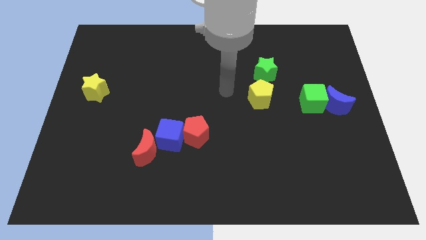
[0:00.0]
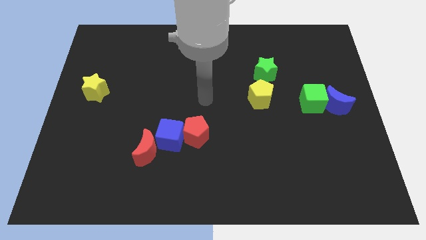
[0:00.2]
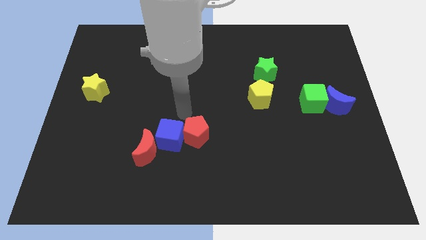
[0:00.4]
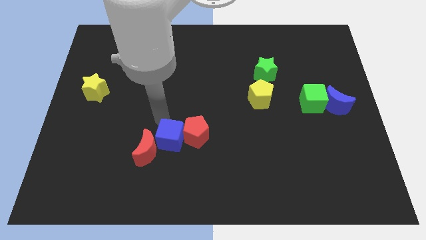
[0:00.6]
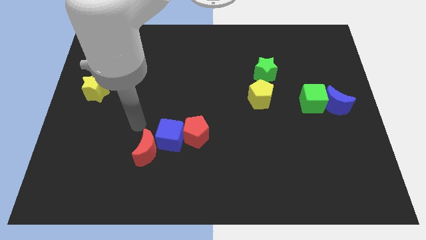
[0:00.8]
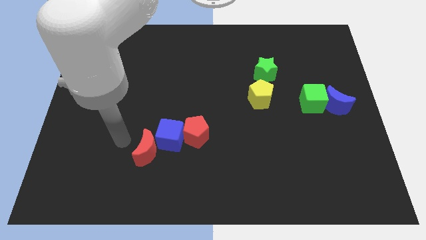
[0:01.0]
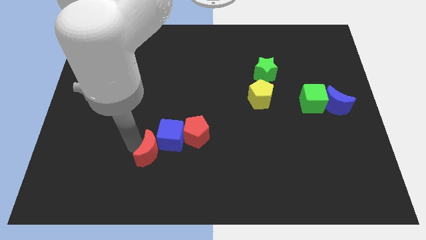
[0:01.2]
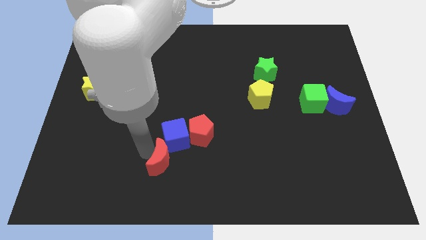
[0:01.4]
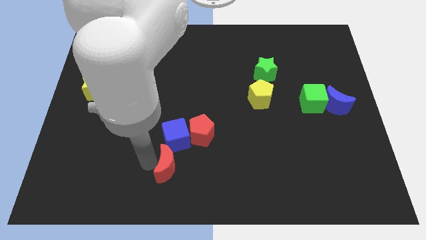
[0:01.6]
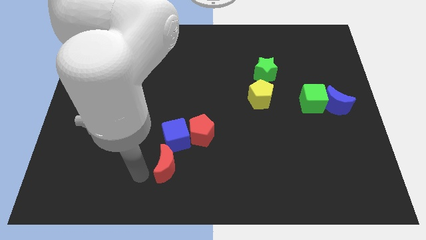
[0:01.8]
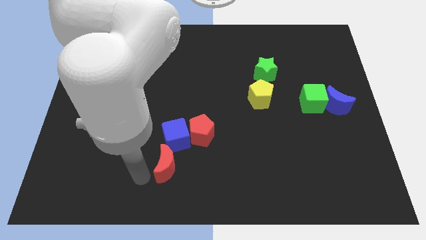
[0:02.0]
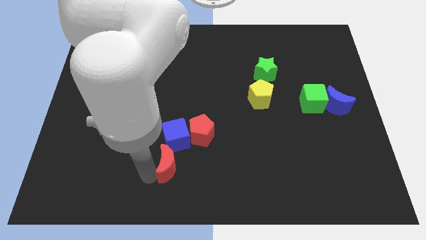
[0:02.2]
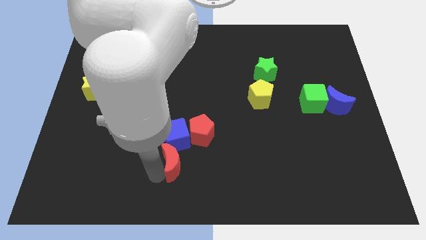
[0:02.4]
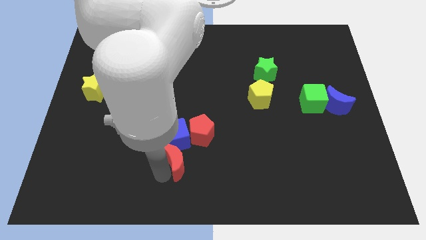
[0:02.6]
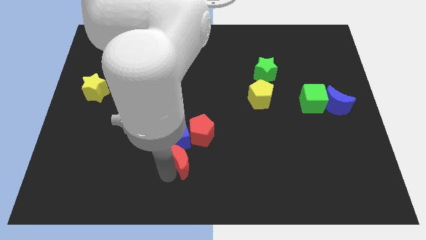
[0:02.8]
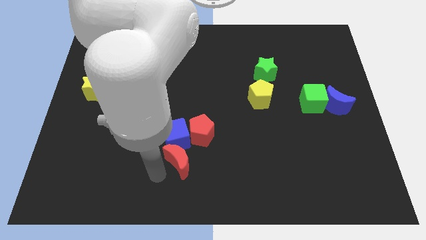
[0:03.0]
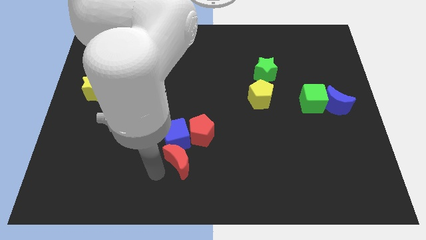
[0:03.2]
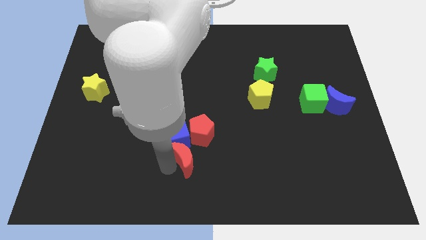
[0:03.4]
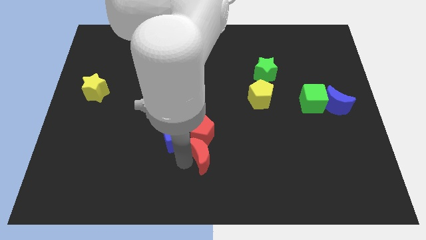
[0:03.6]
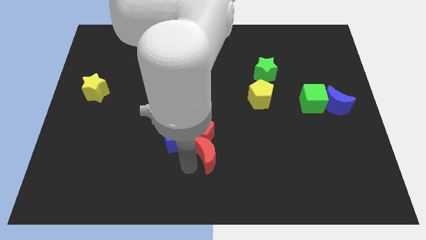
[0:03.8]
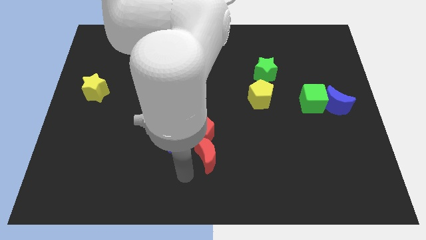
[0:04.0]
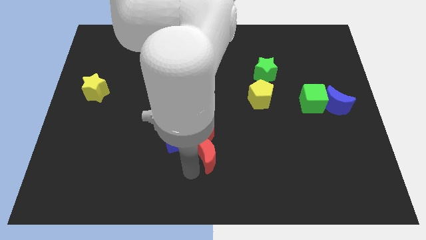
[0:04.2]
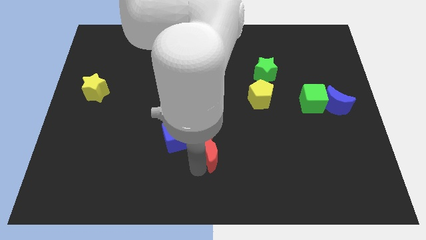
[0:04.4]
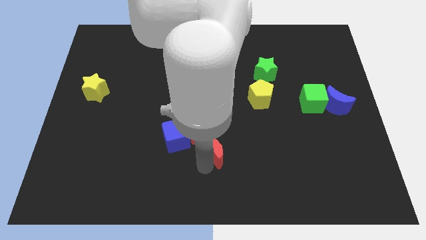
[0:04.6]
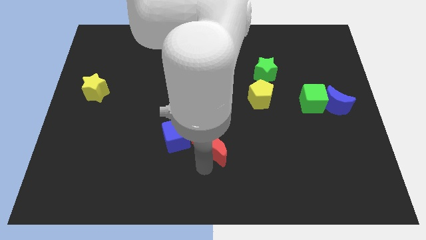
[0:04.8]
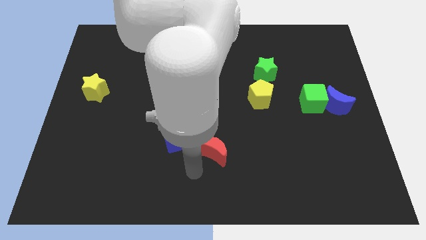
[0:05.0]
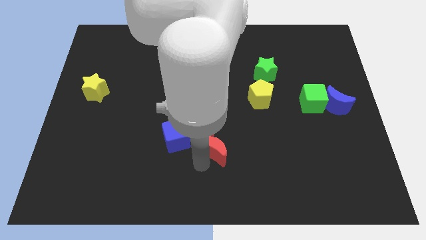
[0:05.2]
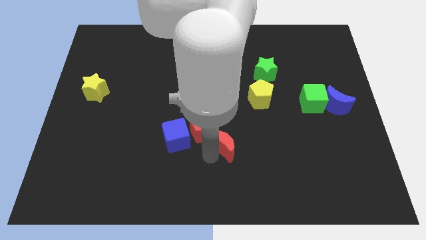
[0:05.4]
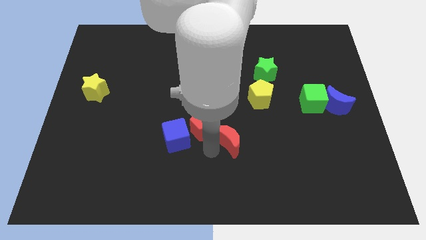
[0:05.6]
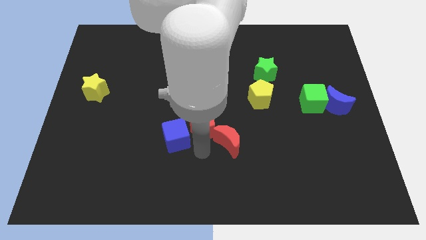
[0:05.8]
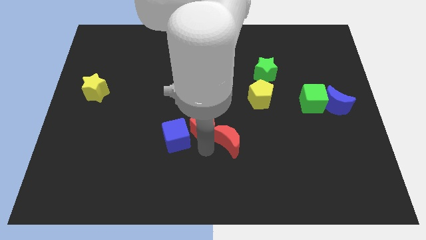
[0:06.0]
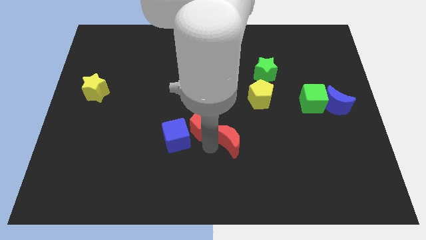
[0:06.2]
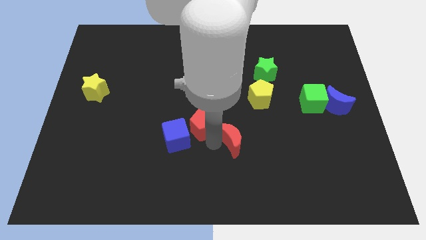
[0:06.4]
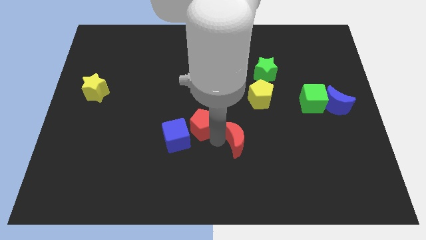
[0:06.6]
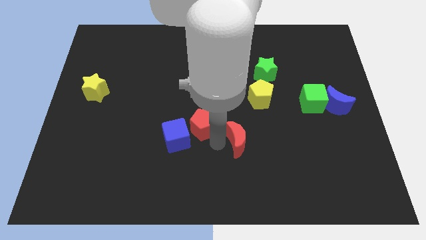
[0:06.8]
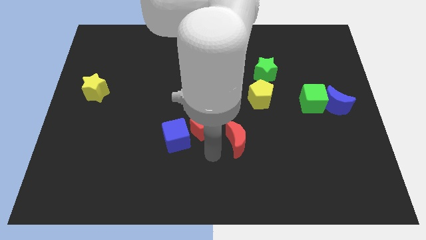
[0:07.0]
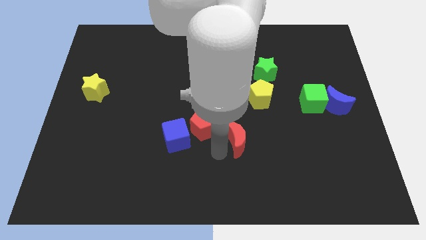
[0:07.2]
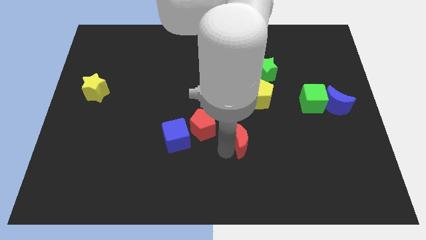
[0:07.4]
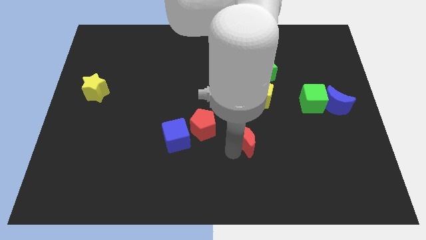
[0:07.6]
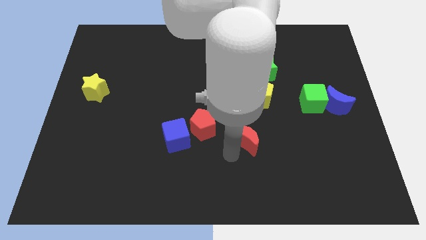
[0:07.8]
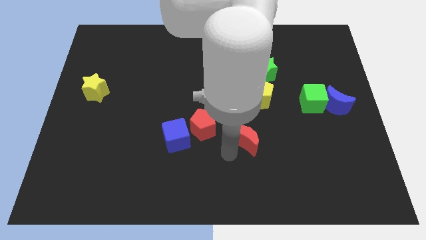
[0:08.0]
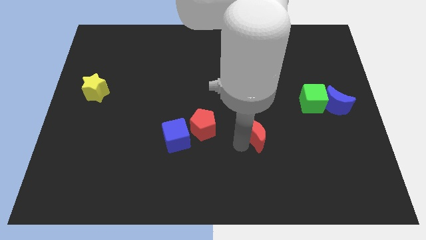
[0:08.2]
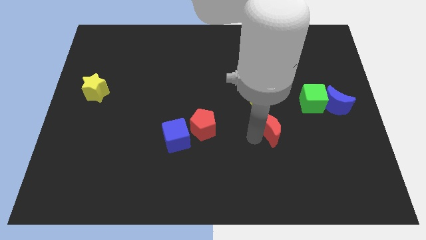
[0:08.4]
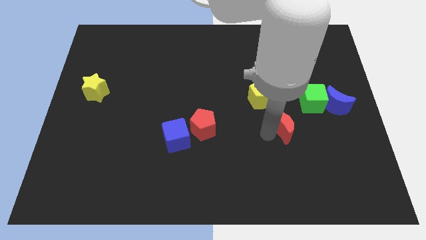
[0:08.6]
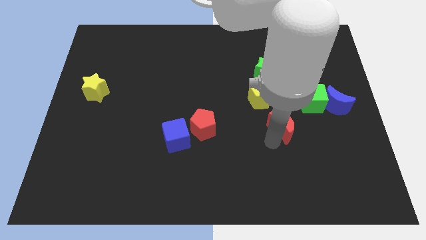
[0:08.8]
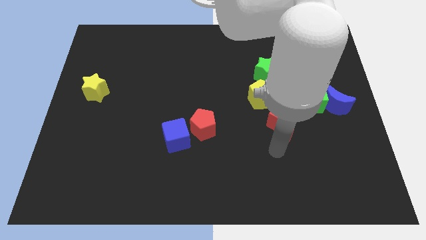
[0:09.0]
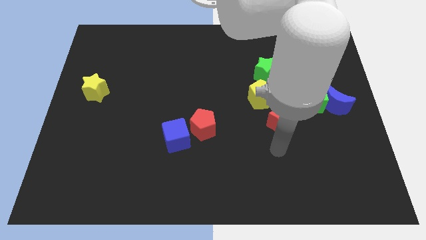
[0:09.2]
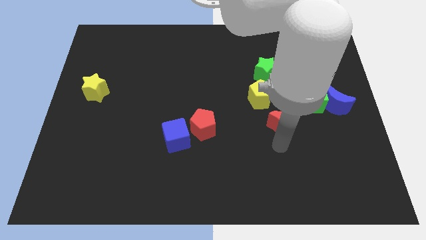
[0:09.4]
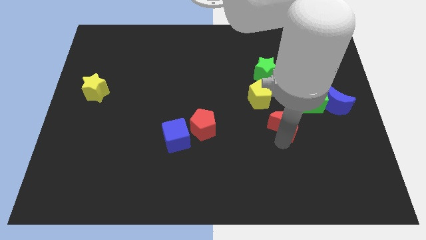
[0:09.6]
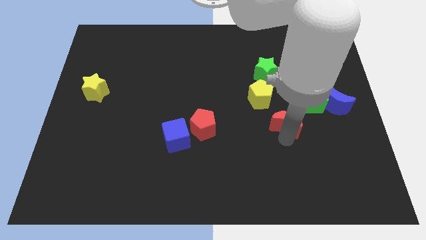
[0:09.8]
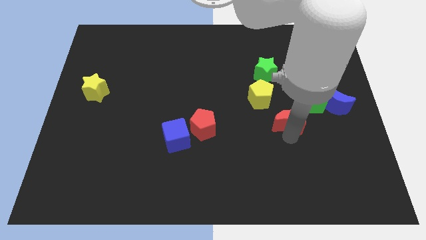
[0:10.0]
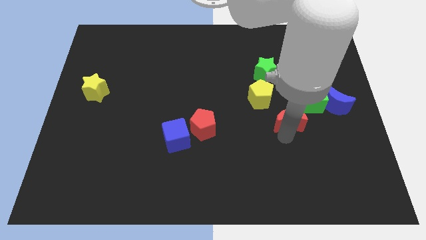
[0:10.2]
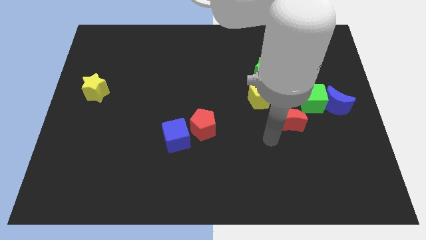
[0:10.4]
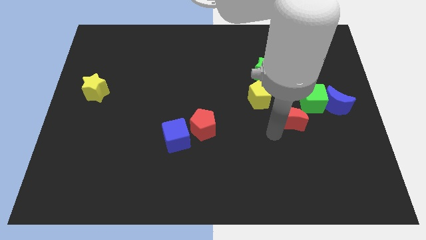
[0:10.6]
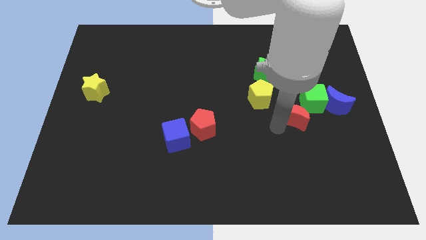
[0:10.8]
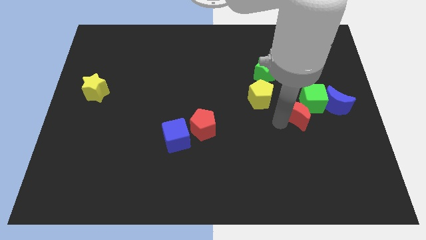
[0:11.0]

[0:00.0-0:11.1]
put the red moon to the green cube

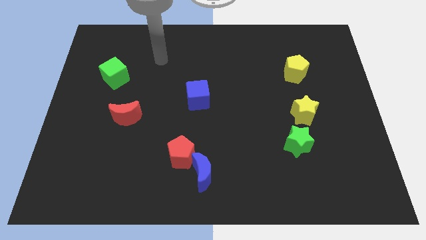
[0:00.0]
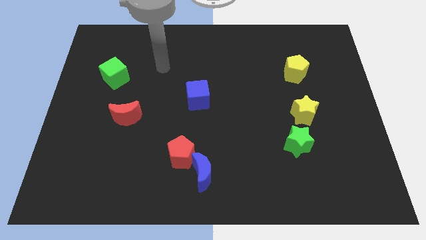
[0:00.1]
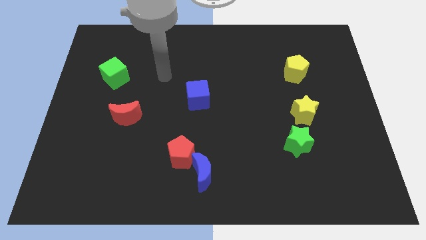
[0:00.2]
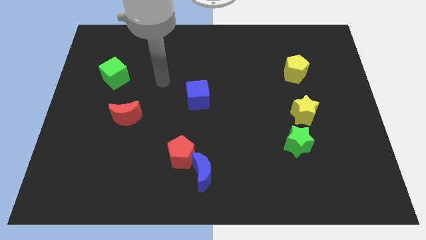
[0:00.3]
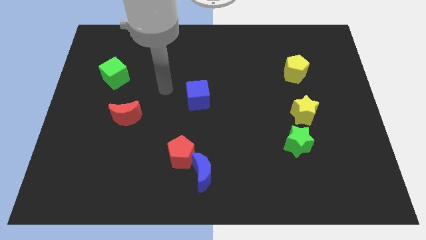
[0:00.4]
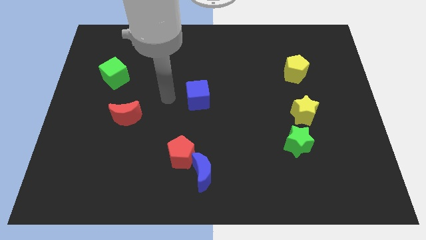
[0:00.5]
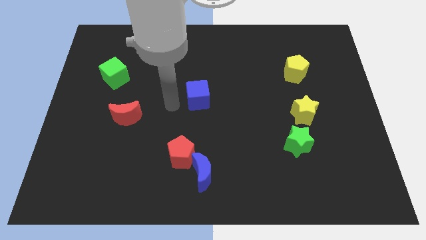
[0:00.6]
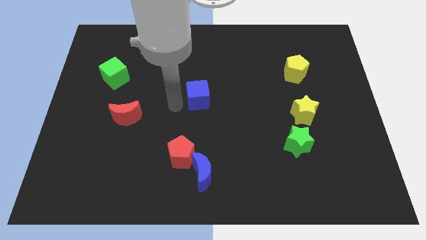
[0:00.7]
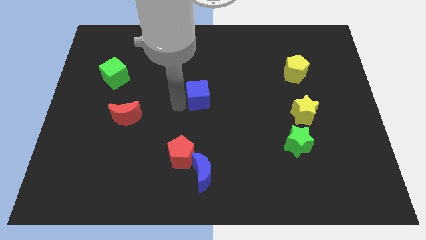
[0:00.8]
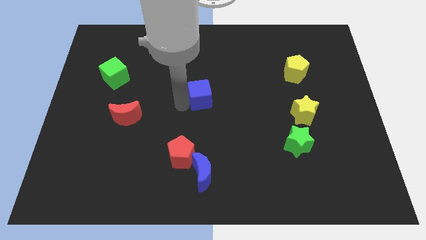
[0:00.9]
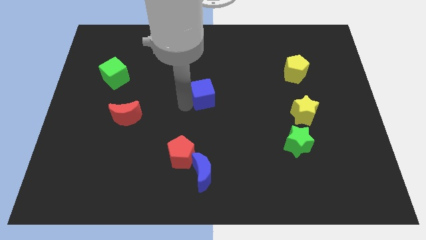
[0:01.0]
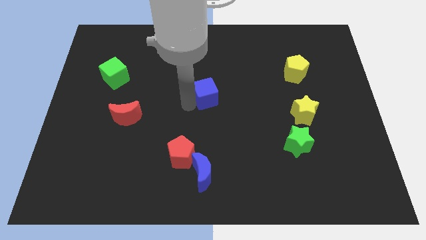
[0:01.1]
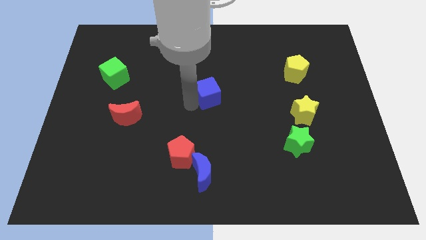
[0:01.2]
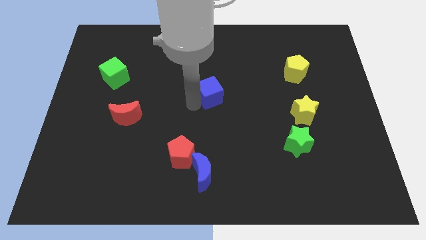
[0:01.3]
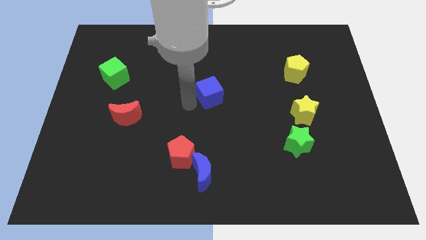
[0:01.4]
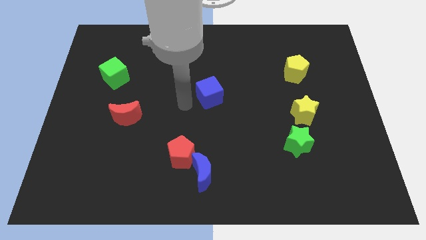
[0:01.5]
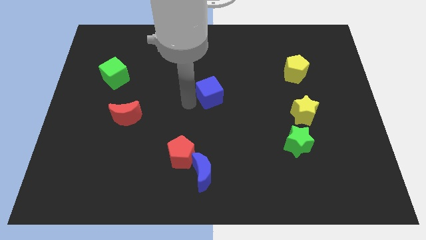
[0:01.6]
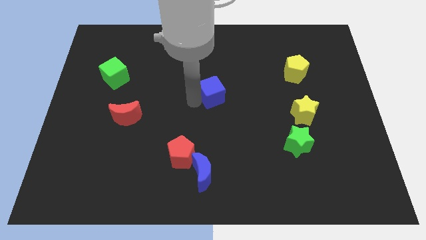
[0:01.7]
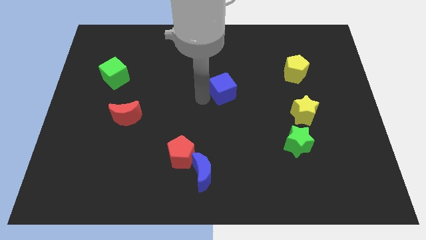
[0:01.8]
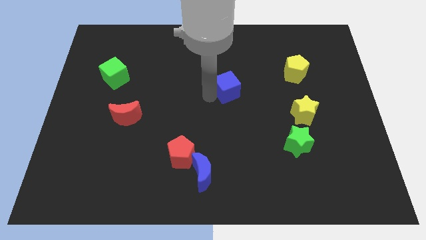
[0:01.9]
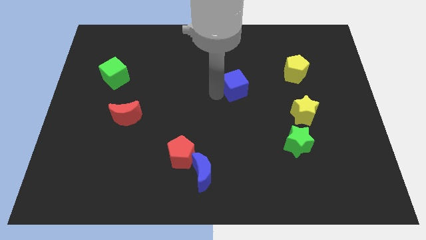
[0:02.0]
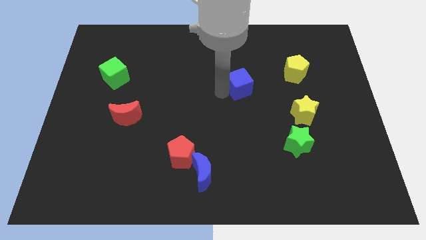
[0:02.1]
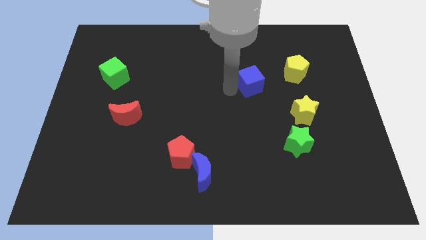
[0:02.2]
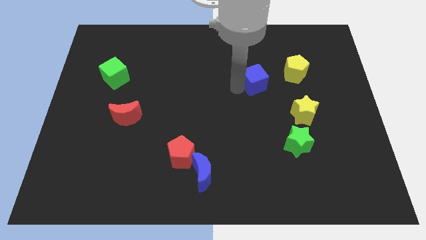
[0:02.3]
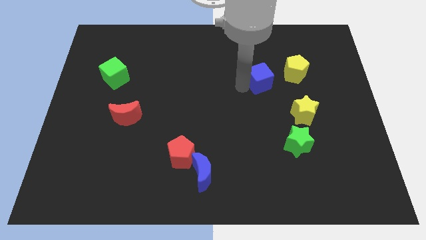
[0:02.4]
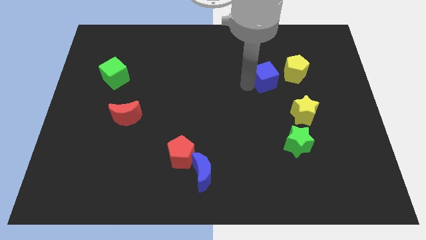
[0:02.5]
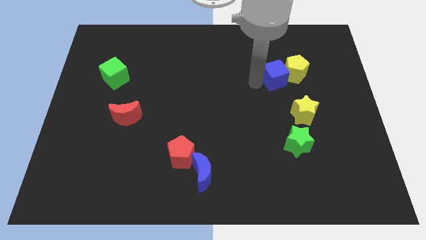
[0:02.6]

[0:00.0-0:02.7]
put the blue cube close to the yellow pentagon
